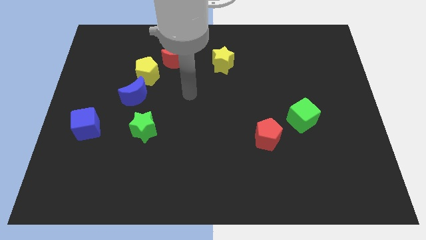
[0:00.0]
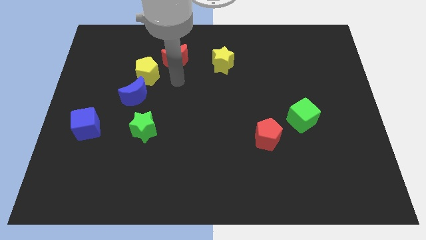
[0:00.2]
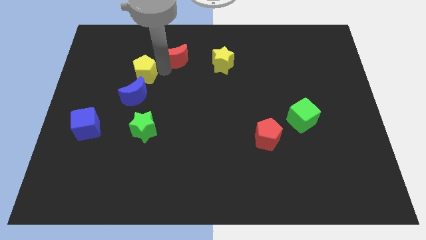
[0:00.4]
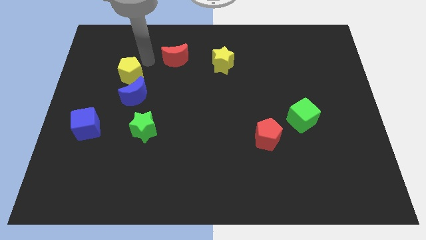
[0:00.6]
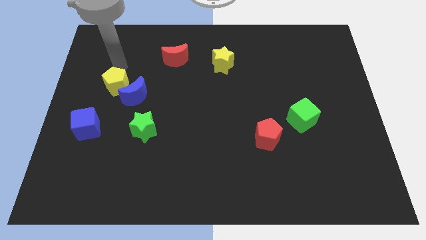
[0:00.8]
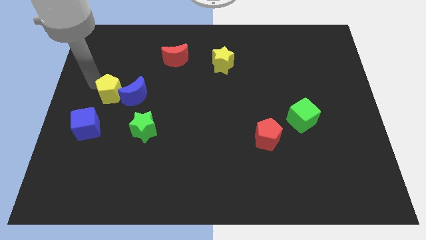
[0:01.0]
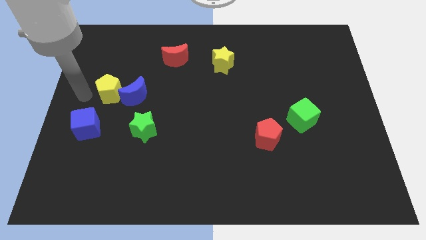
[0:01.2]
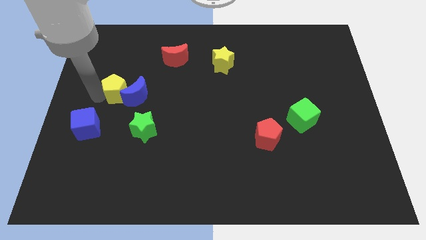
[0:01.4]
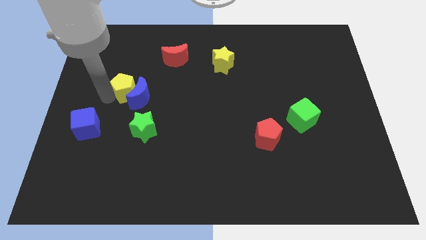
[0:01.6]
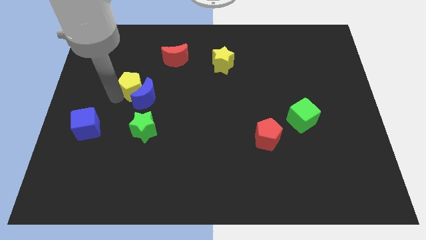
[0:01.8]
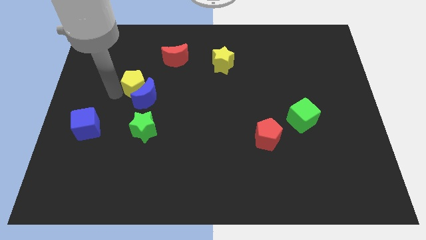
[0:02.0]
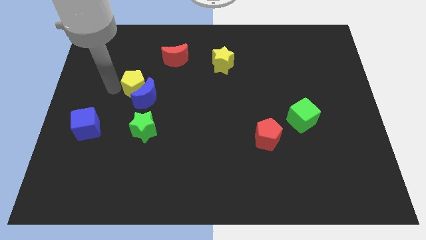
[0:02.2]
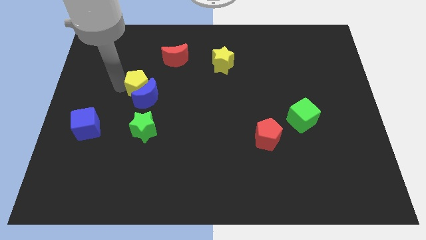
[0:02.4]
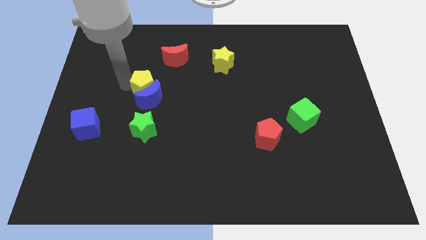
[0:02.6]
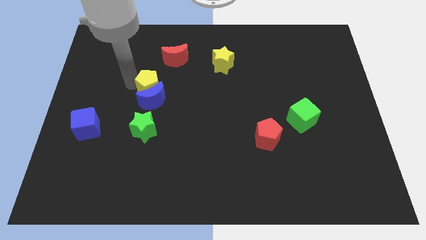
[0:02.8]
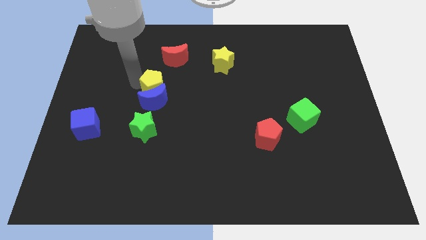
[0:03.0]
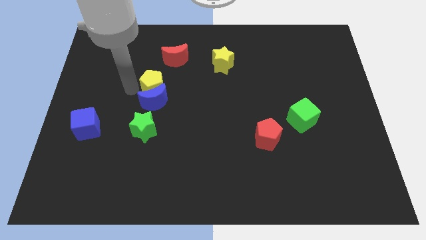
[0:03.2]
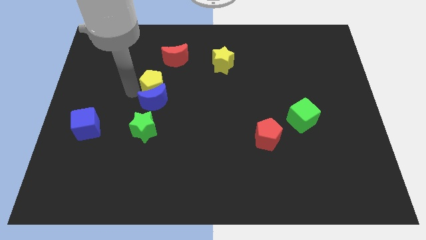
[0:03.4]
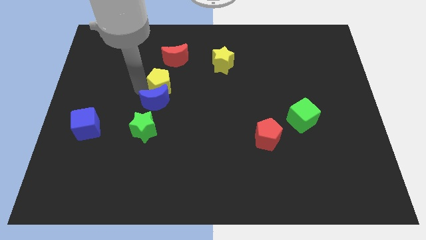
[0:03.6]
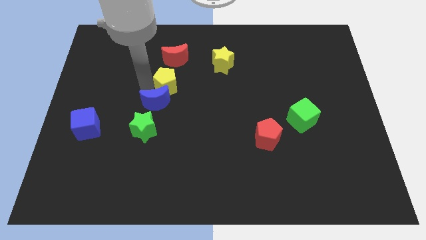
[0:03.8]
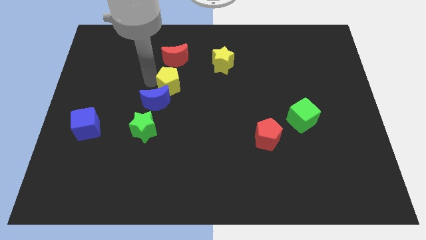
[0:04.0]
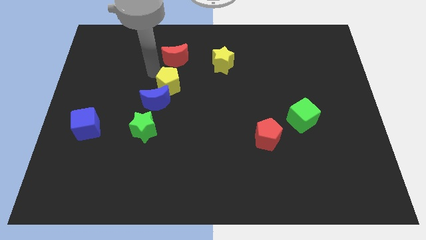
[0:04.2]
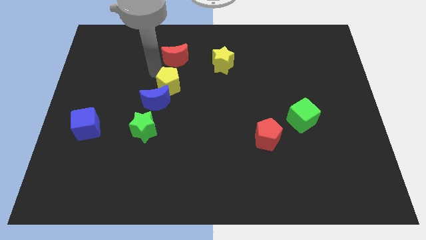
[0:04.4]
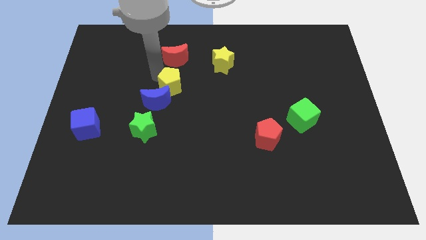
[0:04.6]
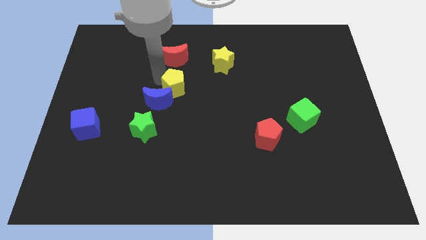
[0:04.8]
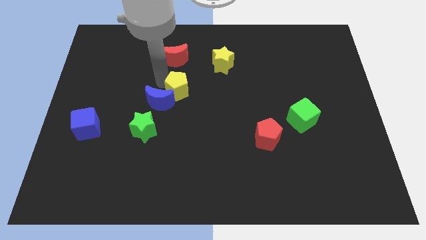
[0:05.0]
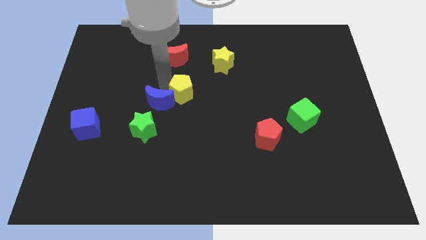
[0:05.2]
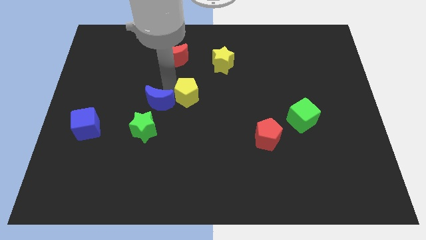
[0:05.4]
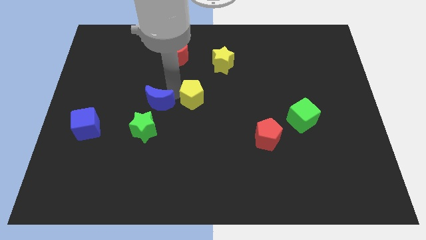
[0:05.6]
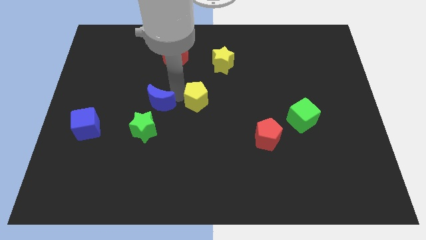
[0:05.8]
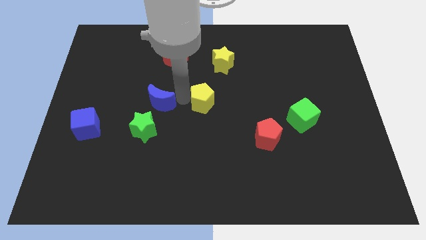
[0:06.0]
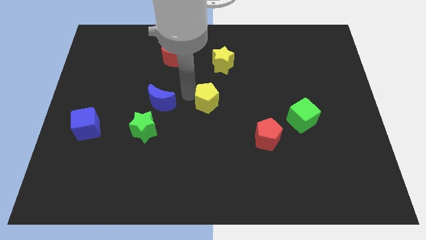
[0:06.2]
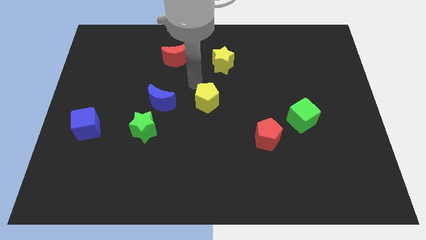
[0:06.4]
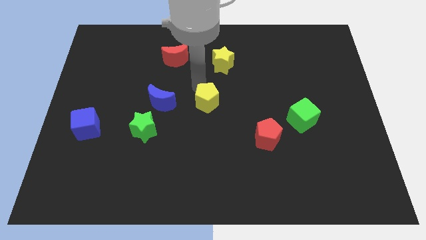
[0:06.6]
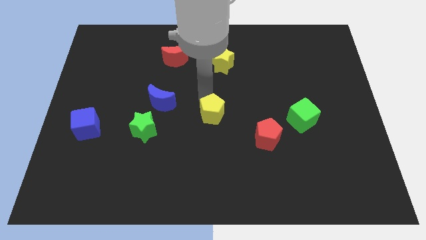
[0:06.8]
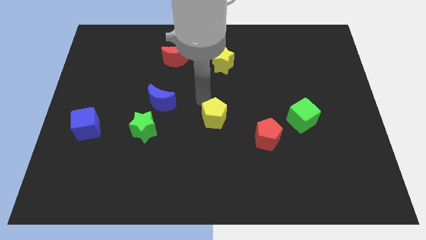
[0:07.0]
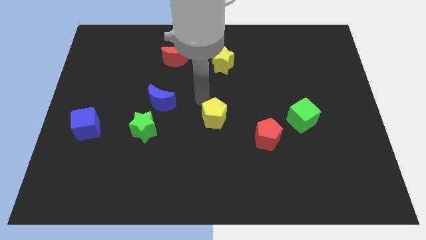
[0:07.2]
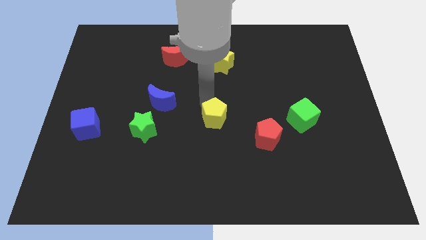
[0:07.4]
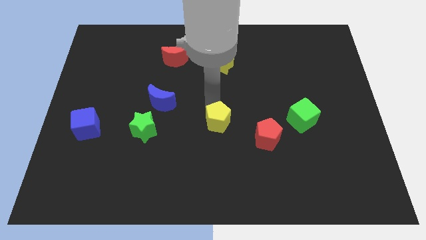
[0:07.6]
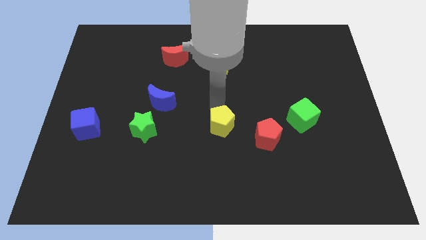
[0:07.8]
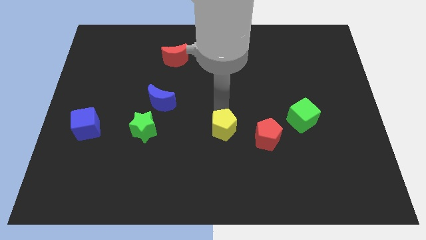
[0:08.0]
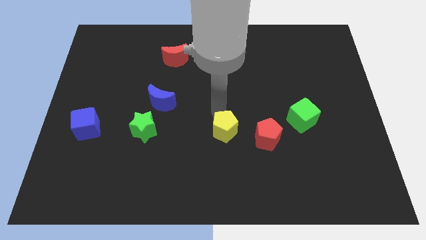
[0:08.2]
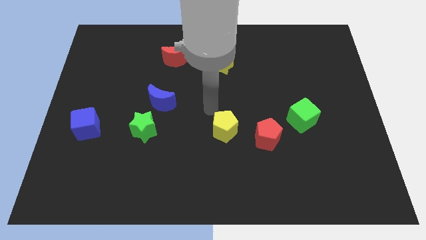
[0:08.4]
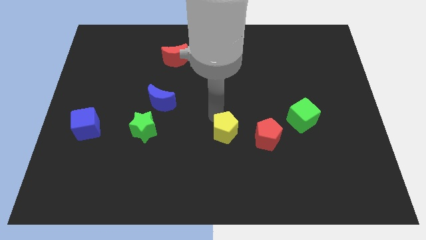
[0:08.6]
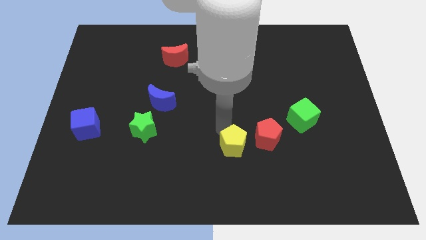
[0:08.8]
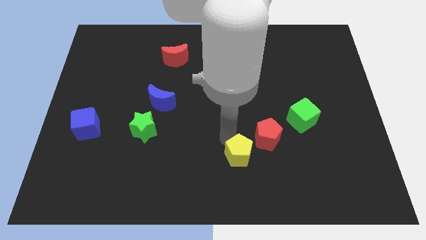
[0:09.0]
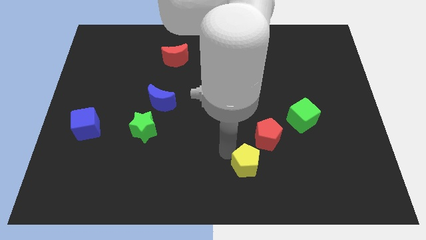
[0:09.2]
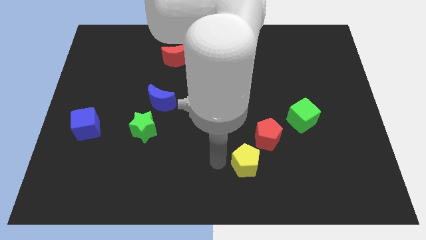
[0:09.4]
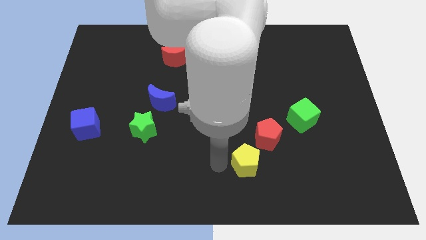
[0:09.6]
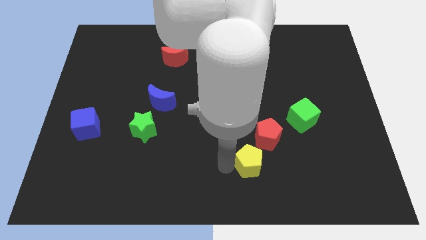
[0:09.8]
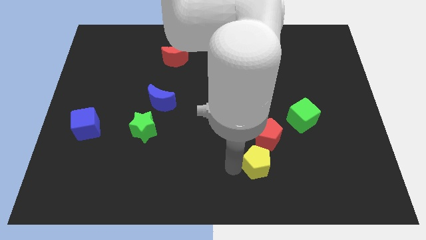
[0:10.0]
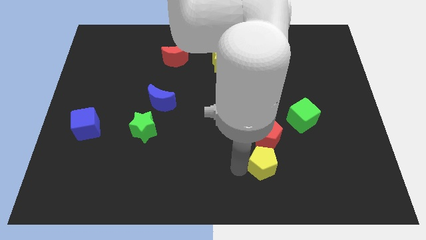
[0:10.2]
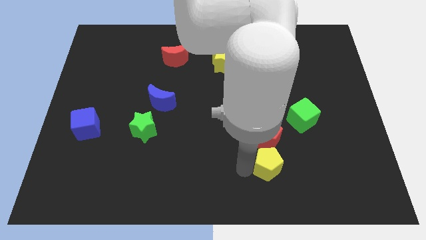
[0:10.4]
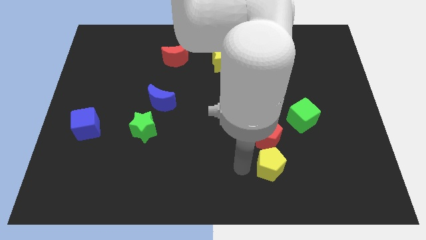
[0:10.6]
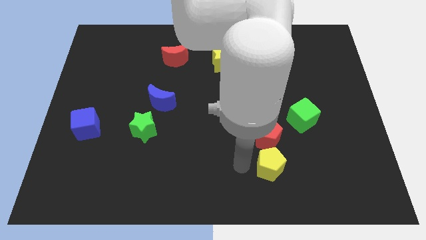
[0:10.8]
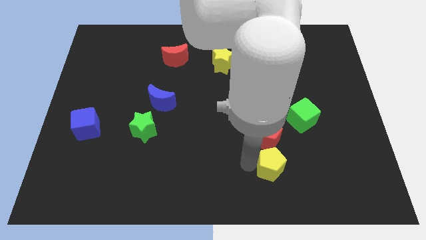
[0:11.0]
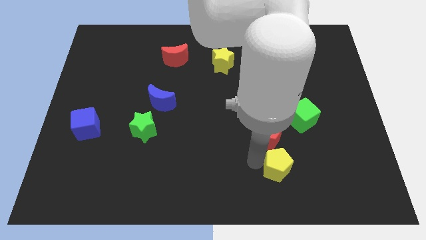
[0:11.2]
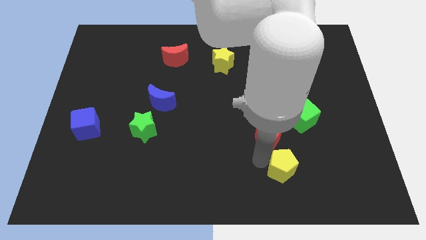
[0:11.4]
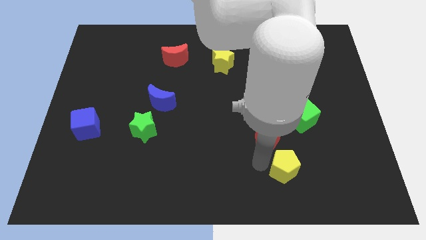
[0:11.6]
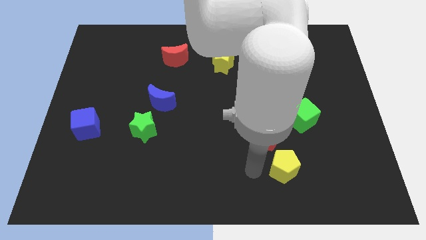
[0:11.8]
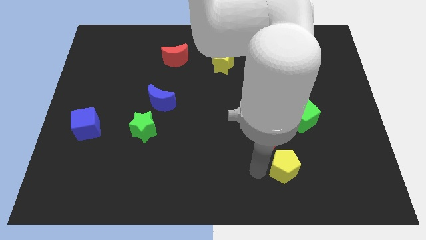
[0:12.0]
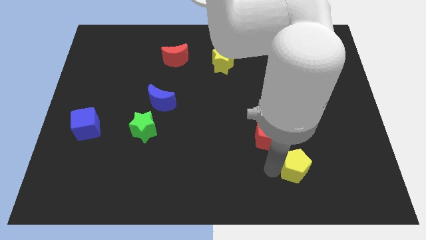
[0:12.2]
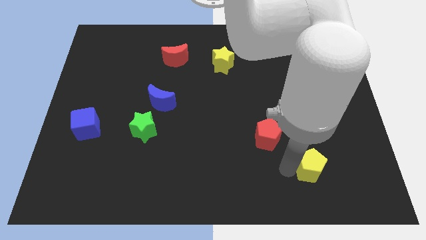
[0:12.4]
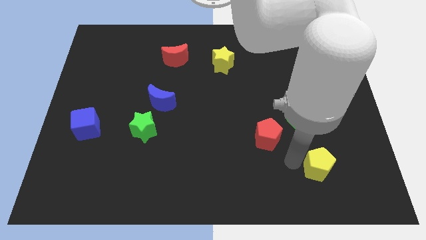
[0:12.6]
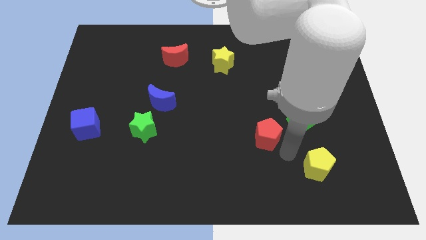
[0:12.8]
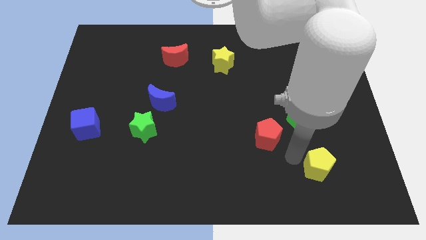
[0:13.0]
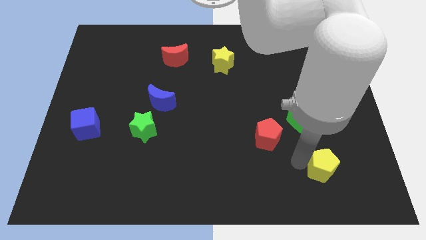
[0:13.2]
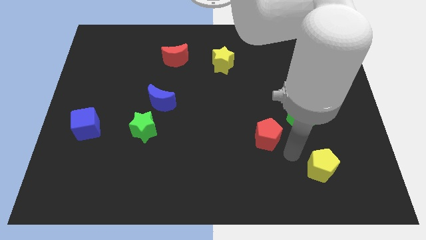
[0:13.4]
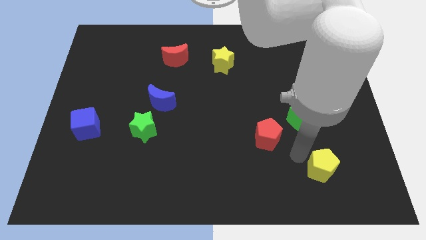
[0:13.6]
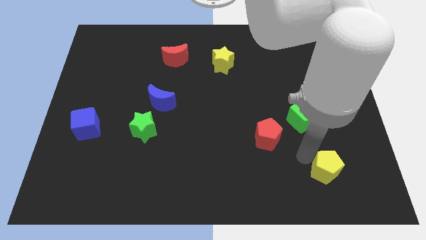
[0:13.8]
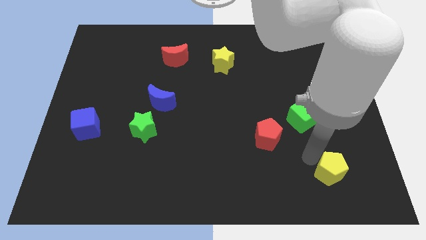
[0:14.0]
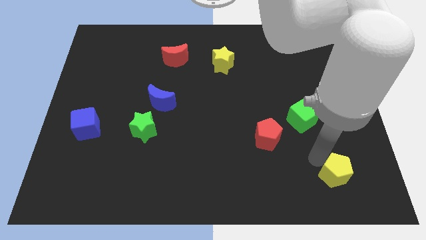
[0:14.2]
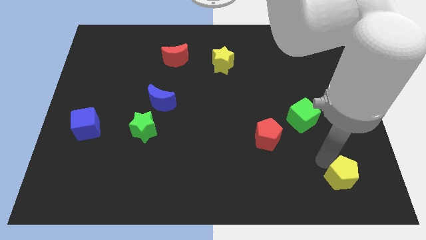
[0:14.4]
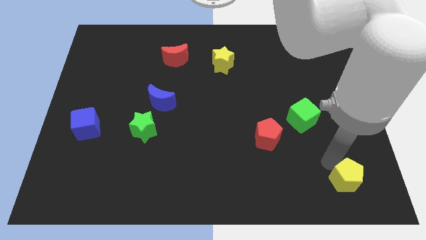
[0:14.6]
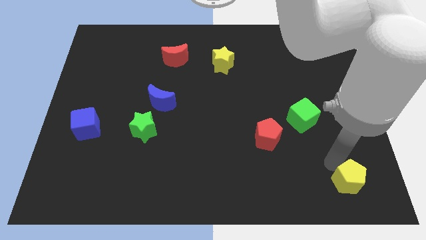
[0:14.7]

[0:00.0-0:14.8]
push the yellow pentagon to the bottom right of the board

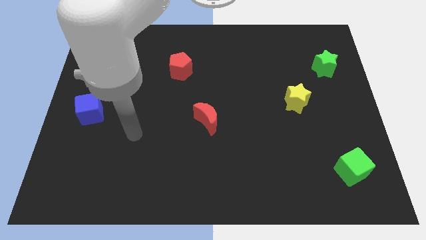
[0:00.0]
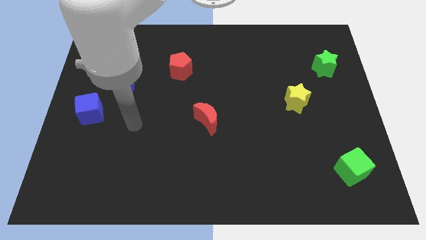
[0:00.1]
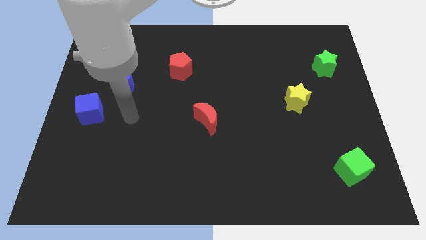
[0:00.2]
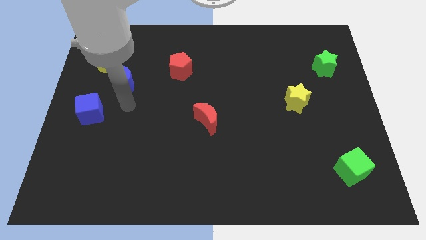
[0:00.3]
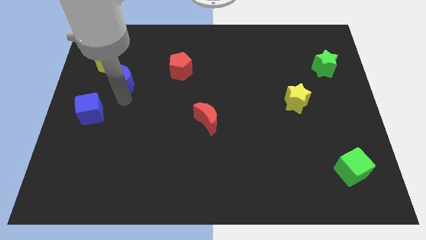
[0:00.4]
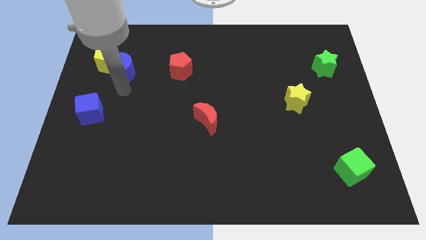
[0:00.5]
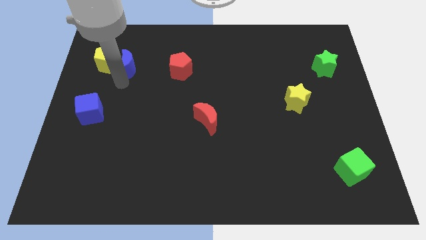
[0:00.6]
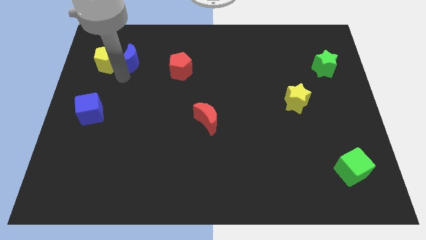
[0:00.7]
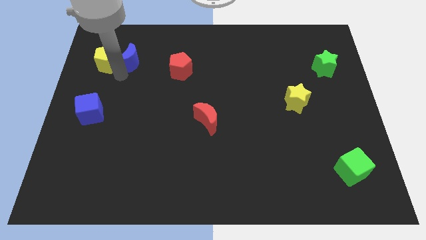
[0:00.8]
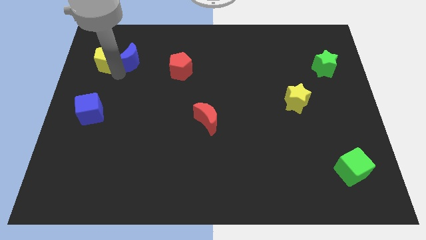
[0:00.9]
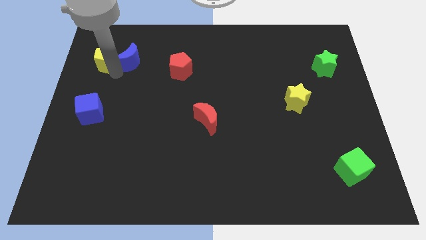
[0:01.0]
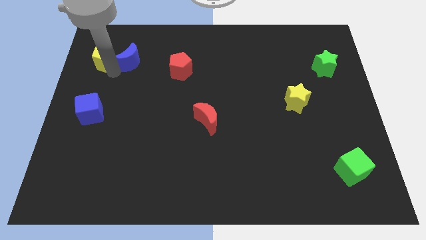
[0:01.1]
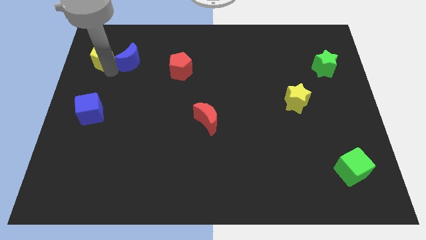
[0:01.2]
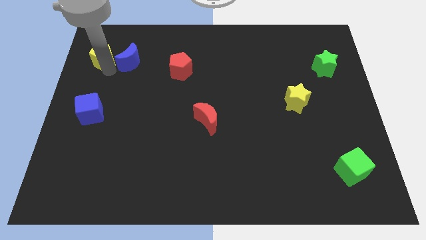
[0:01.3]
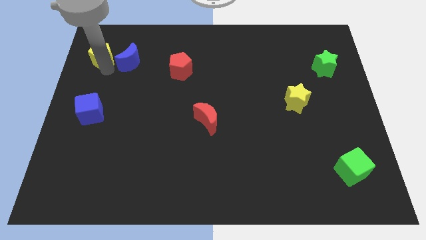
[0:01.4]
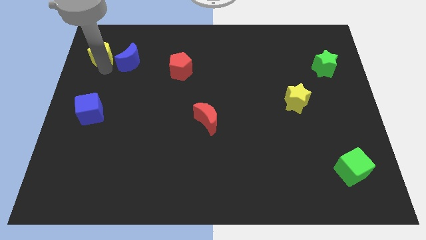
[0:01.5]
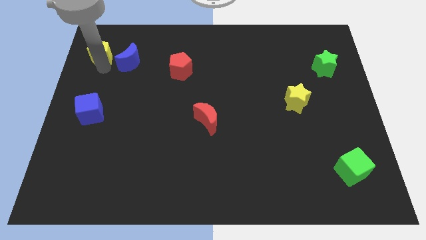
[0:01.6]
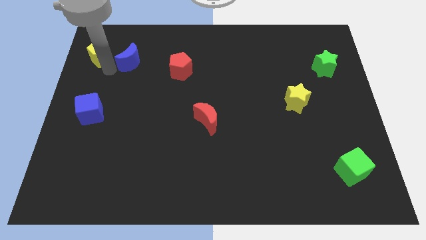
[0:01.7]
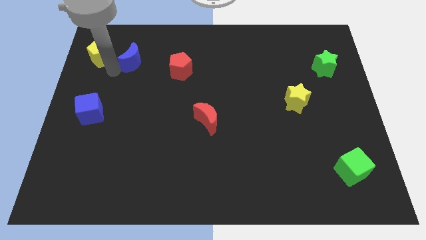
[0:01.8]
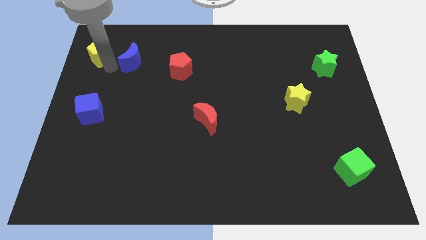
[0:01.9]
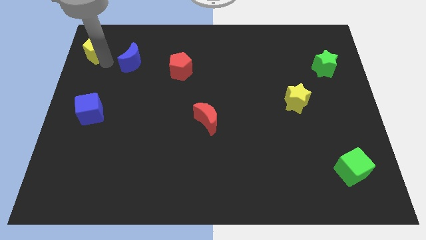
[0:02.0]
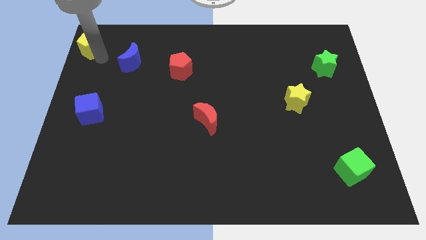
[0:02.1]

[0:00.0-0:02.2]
slide the yellow pentagon to the top left corner
